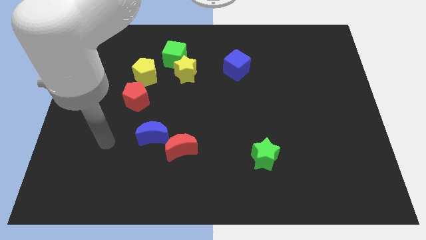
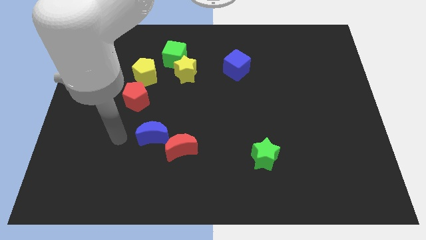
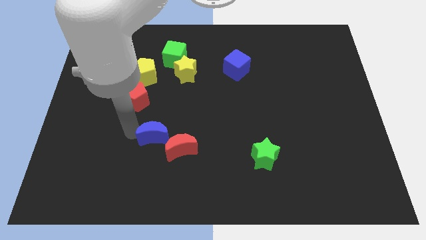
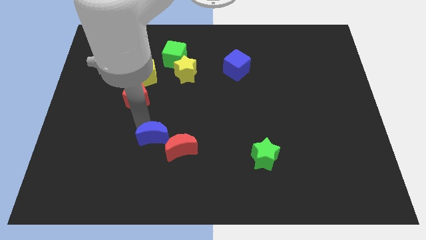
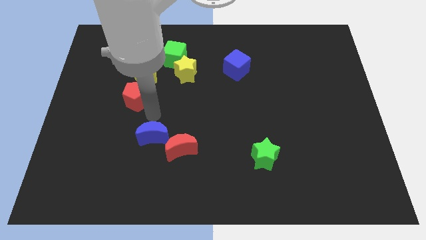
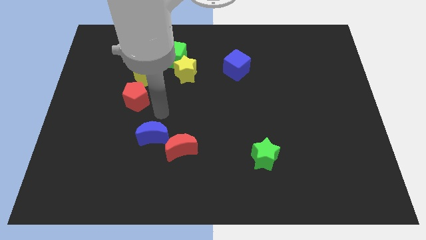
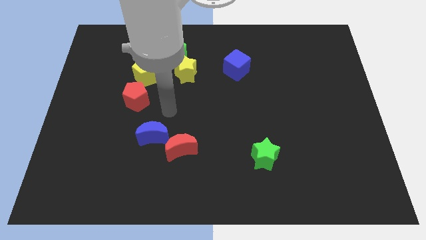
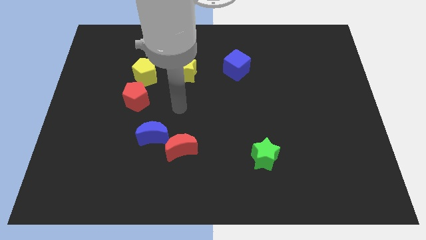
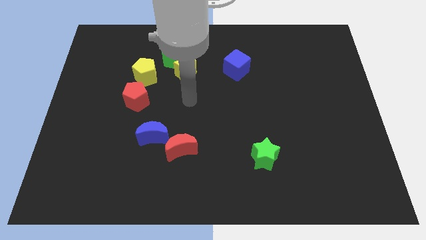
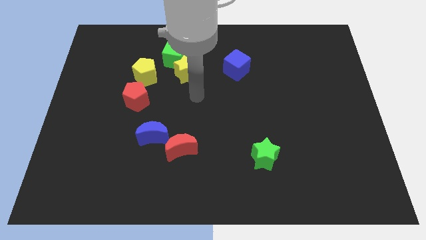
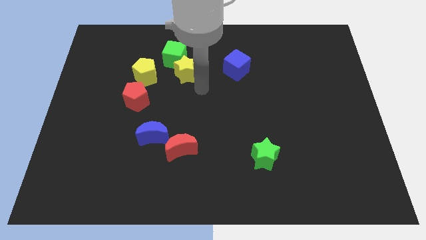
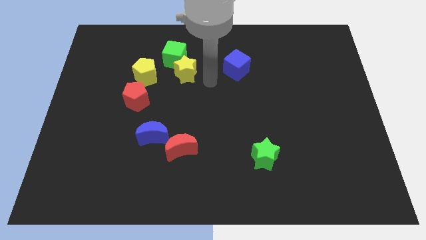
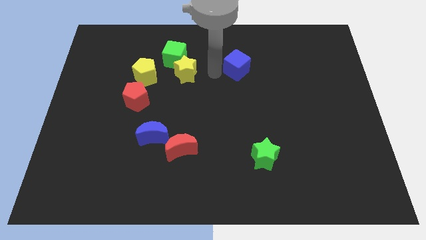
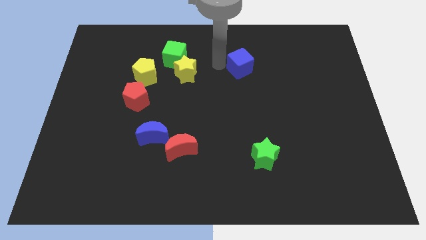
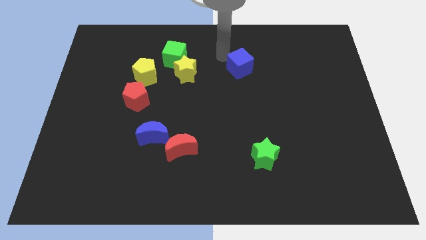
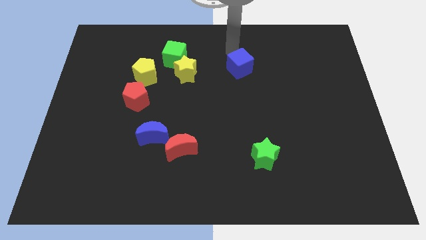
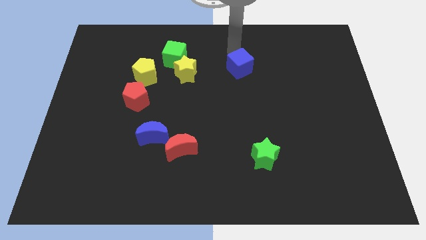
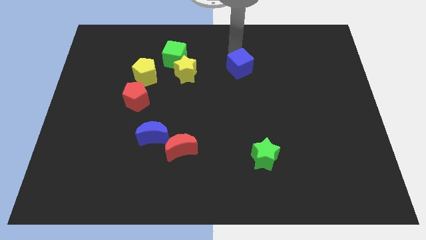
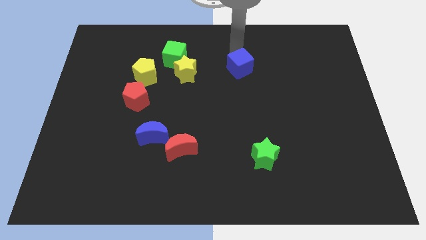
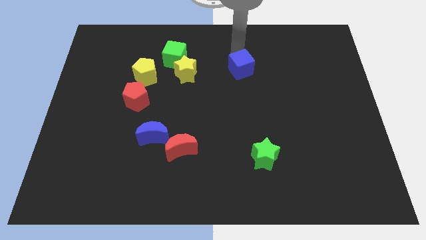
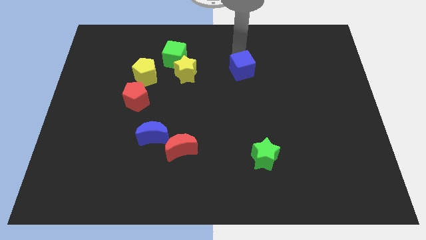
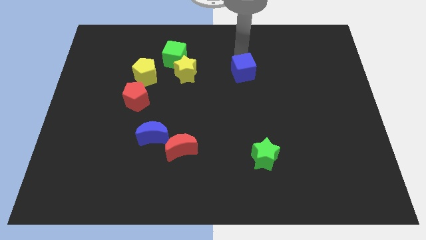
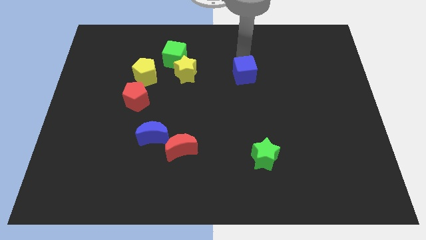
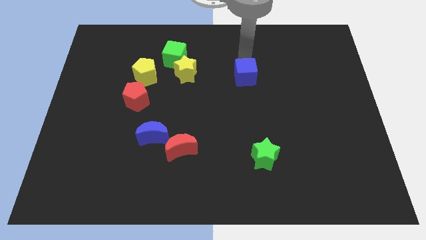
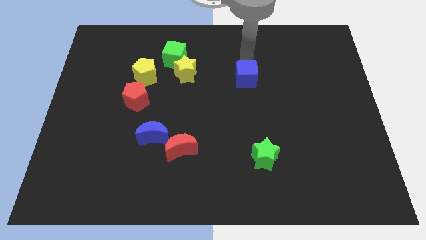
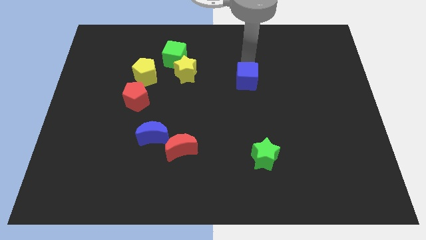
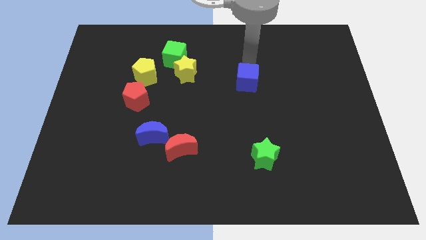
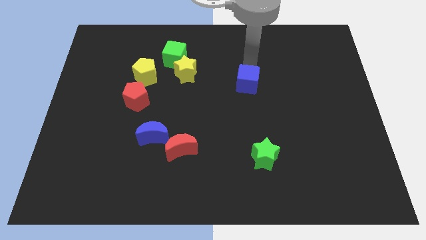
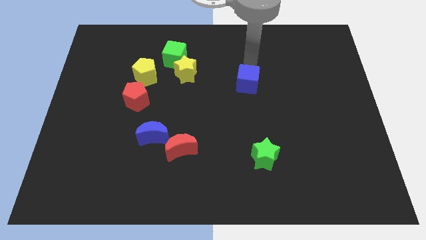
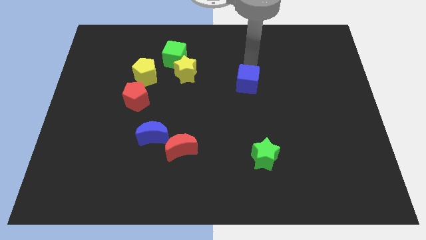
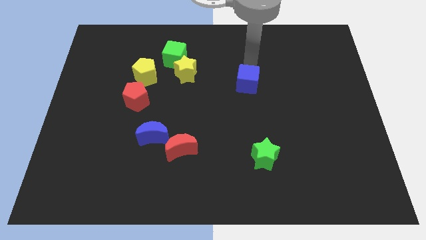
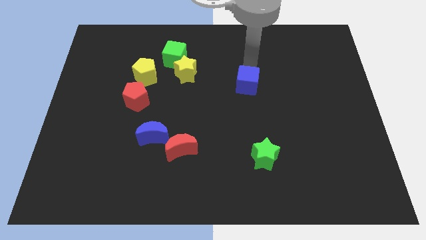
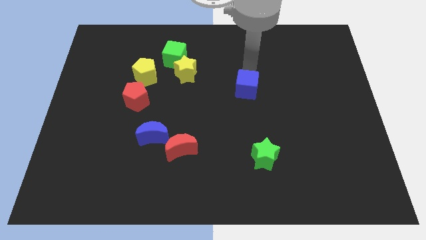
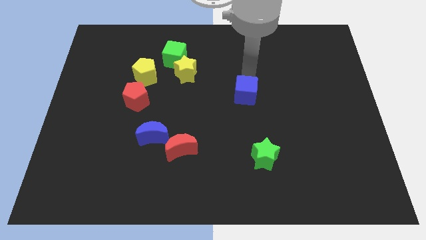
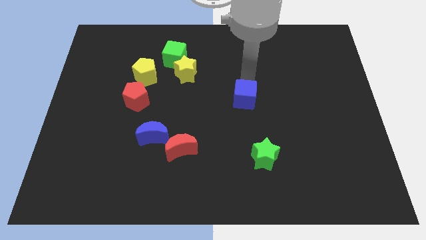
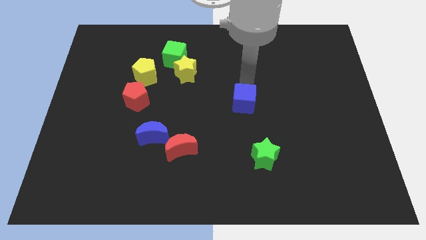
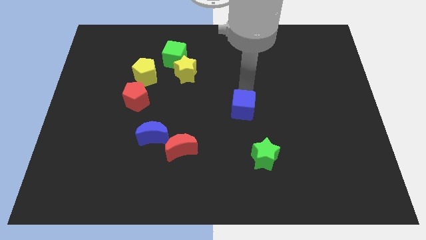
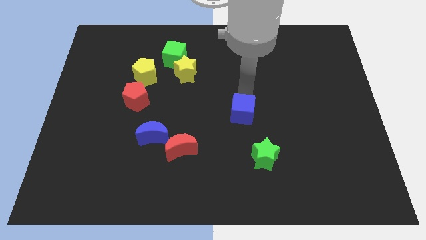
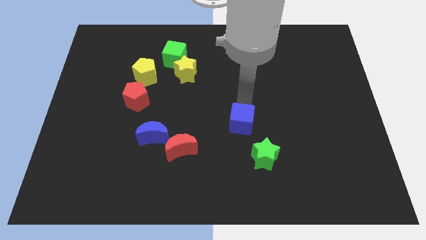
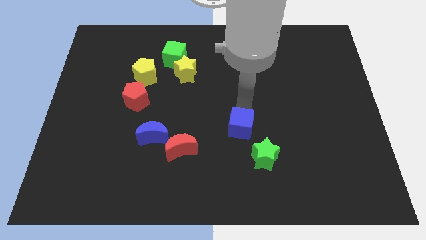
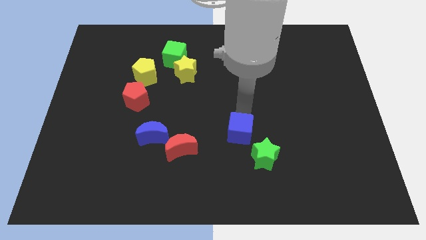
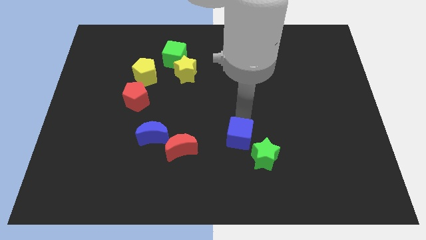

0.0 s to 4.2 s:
slide the blue cube downwards

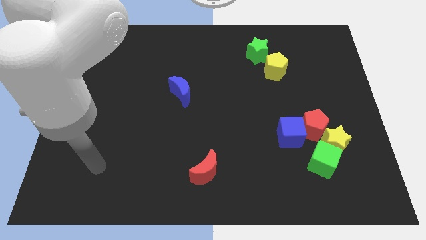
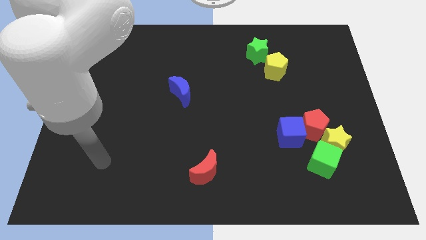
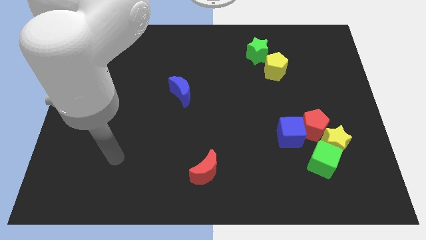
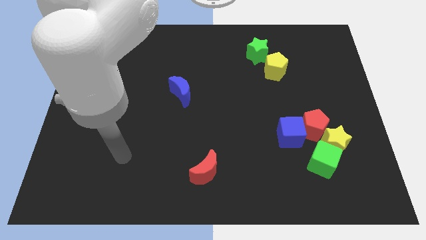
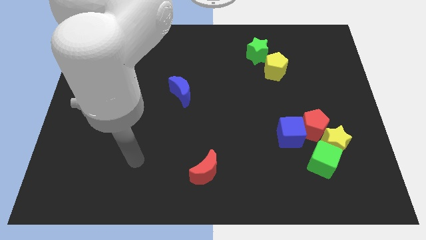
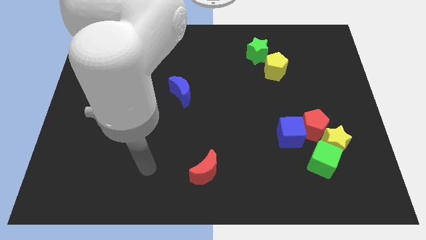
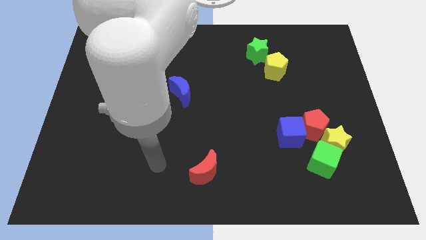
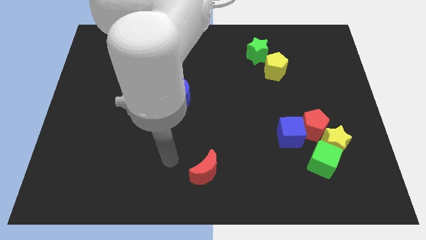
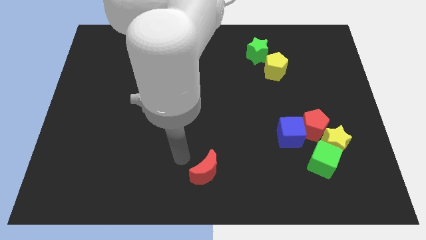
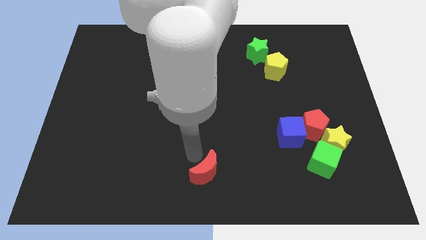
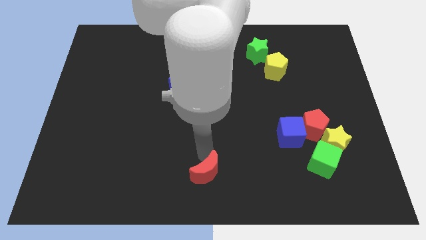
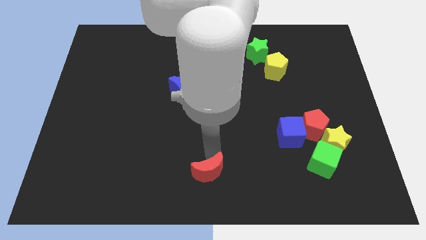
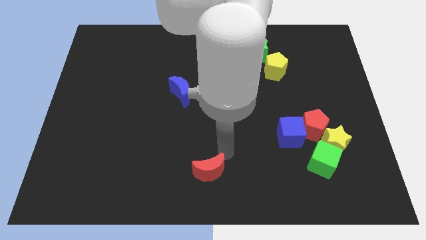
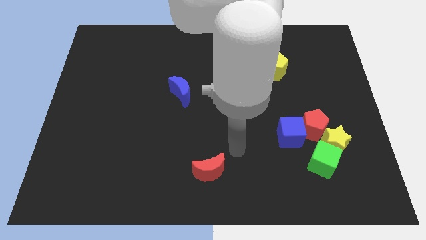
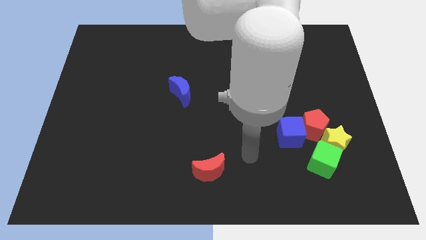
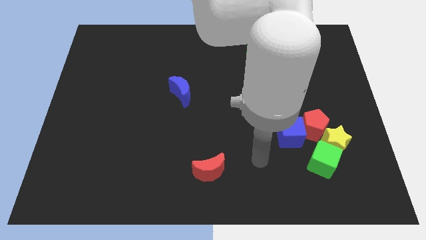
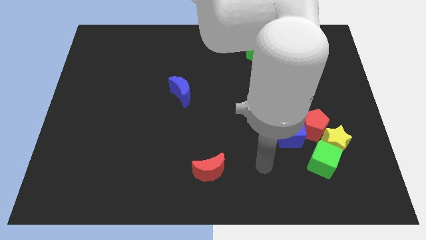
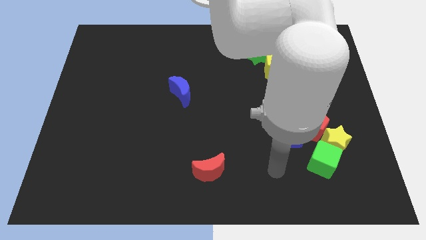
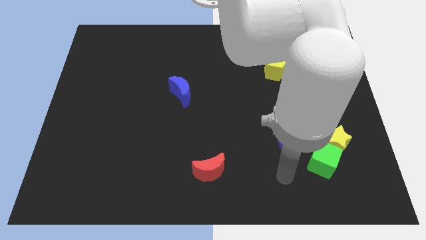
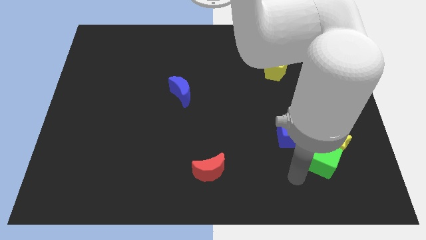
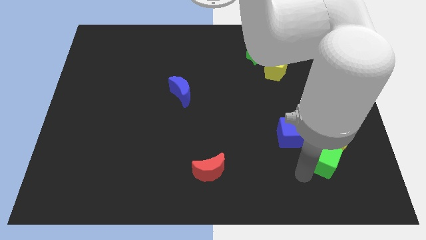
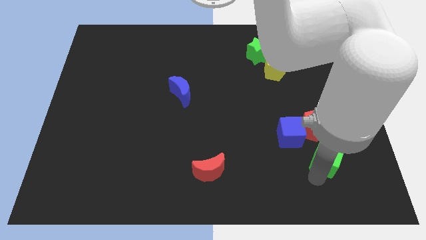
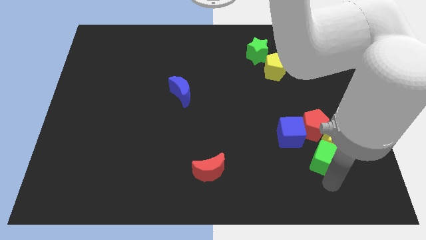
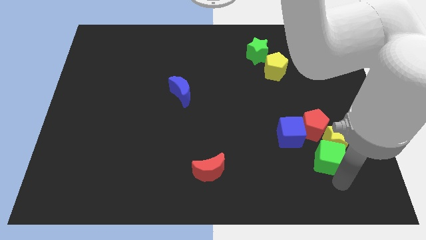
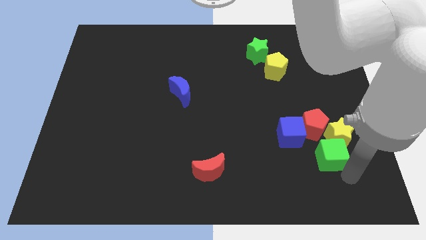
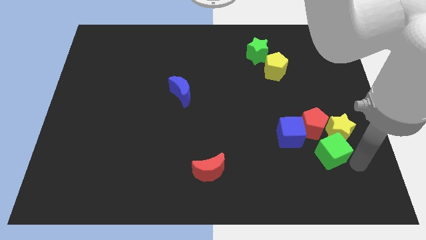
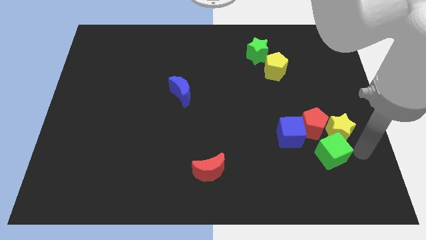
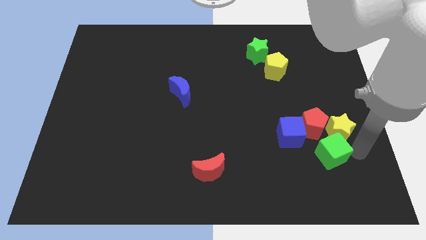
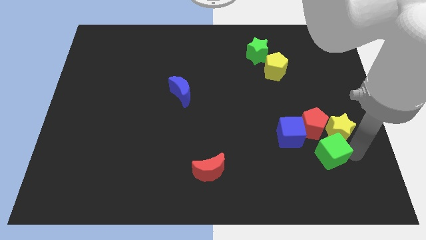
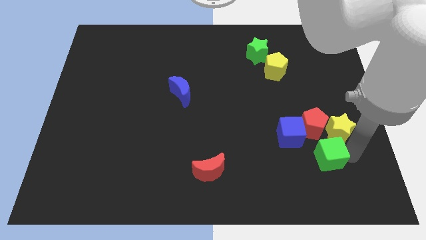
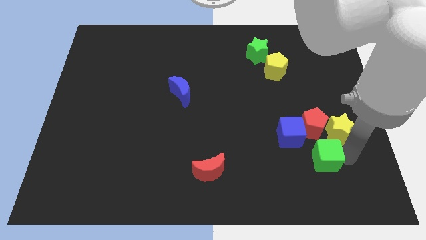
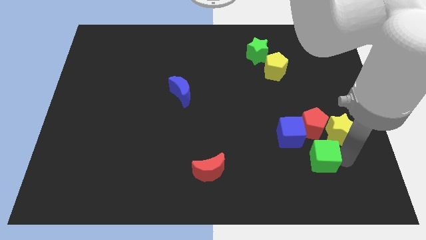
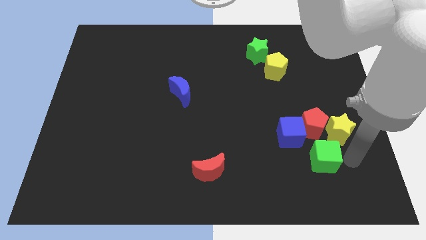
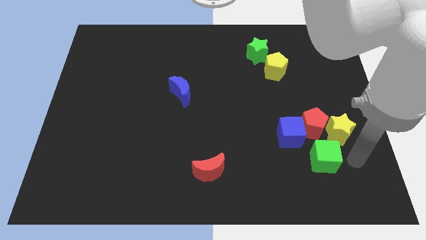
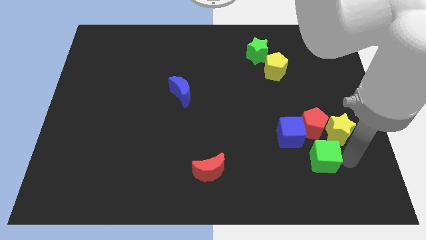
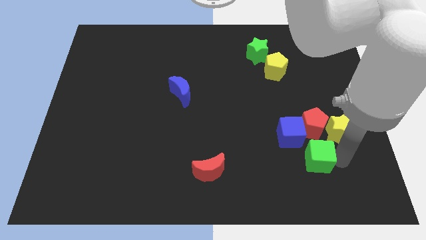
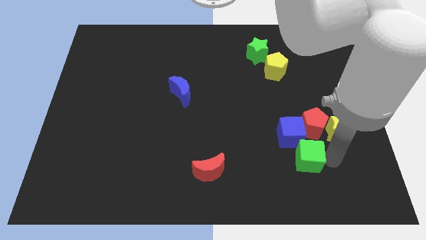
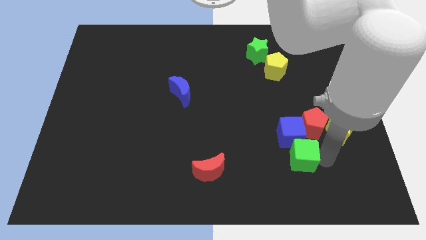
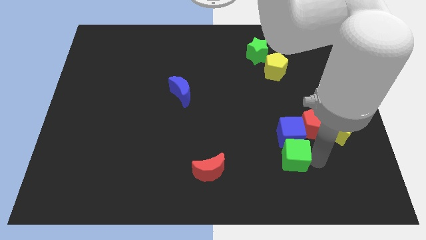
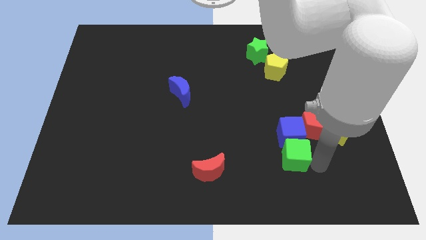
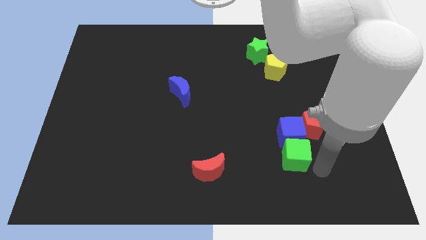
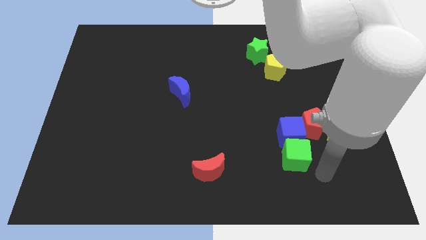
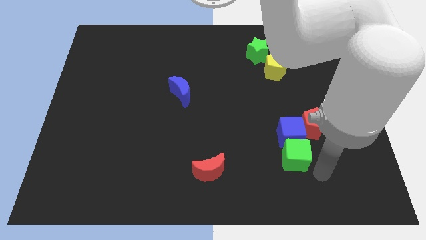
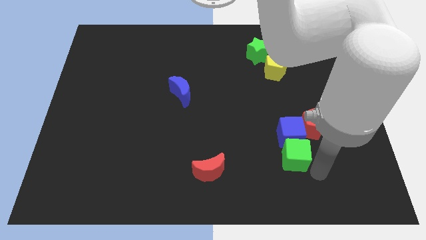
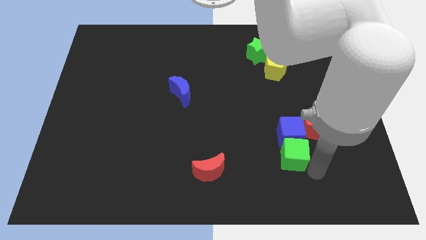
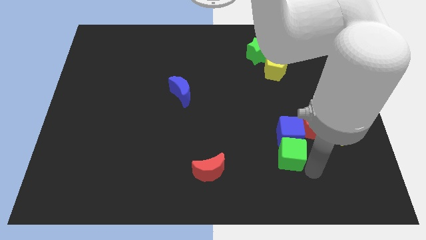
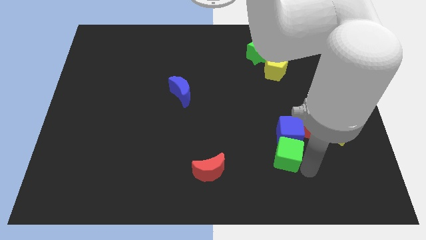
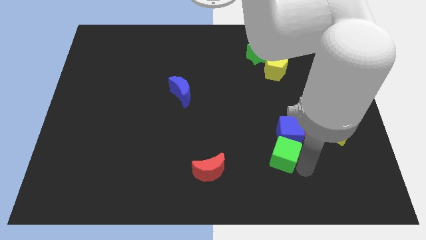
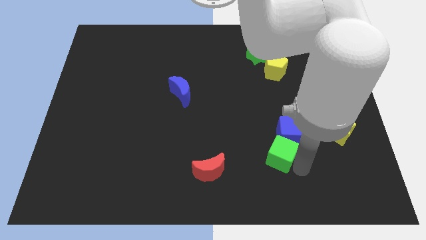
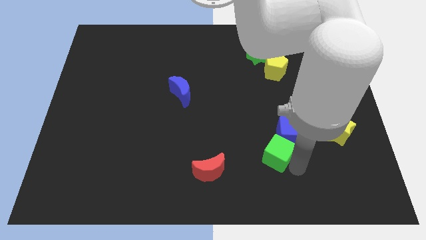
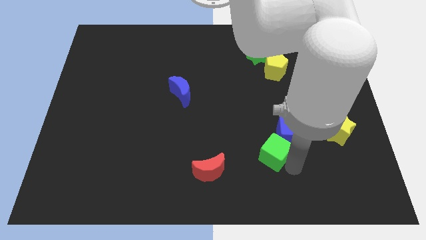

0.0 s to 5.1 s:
move the green cube a little bit diagonally upwards and to the left
